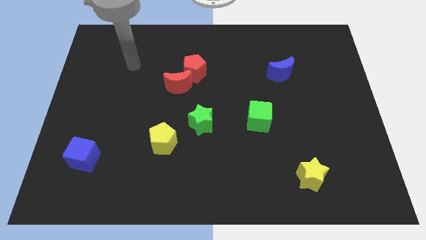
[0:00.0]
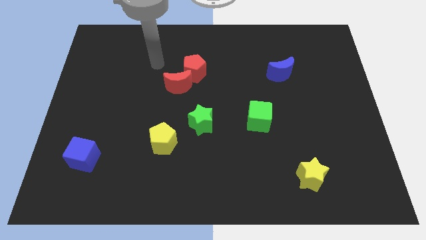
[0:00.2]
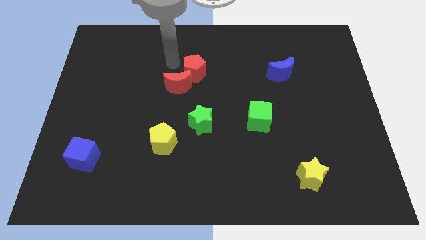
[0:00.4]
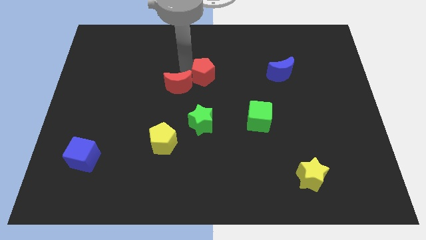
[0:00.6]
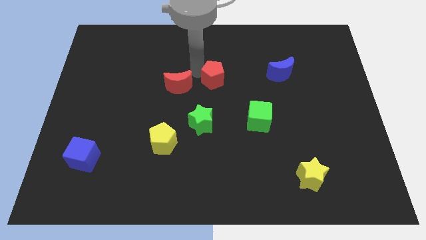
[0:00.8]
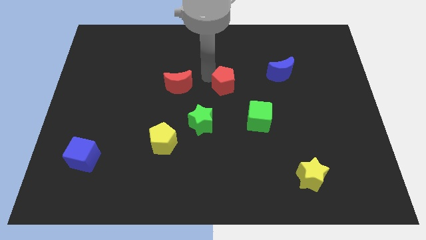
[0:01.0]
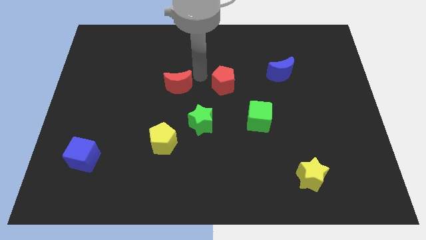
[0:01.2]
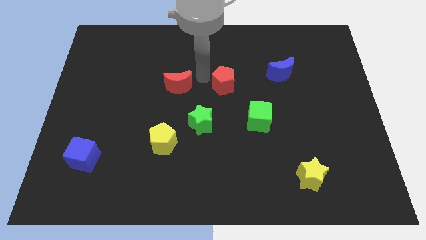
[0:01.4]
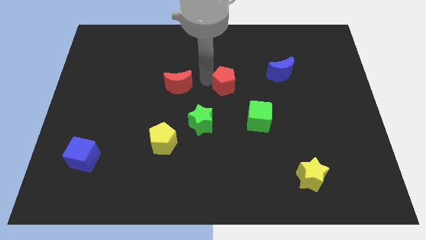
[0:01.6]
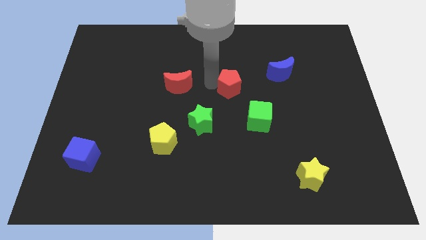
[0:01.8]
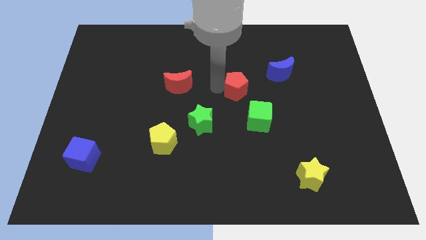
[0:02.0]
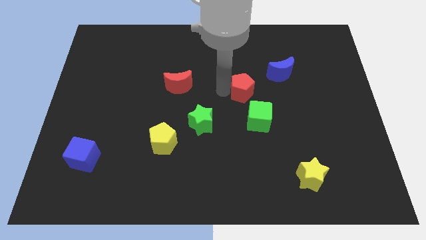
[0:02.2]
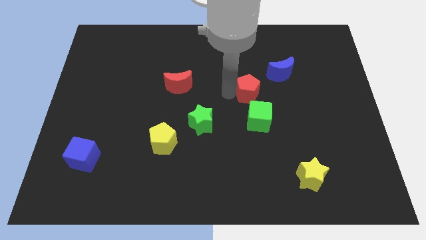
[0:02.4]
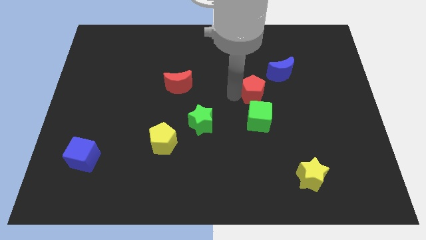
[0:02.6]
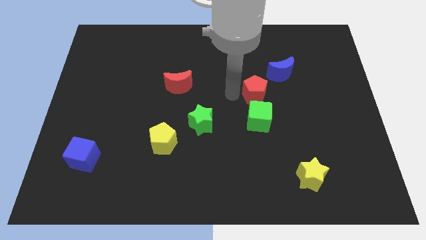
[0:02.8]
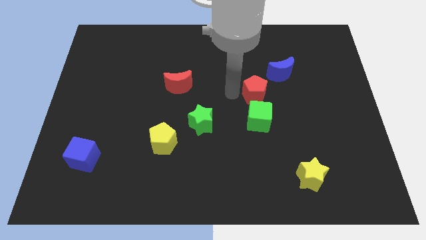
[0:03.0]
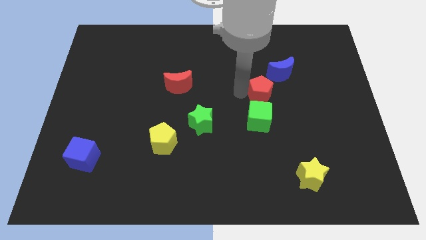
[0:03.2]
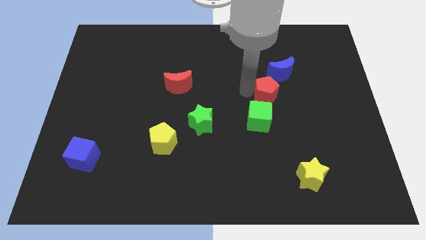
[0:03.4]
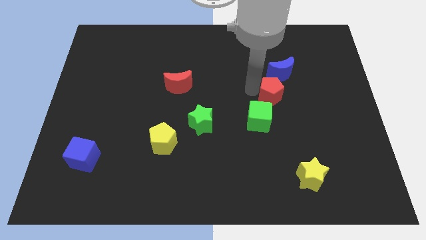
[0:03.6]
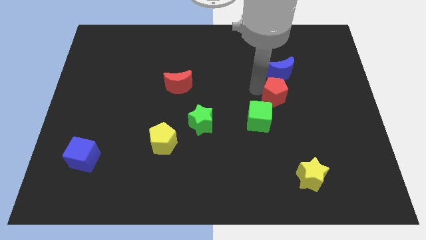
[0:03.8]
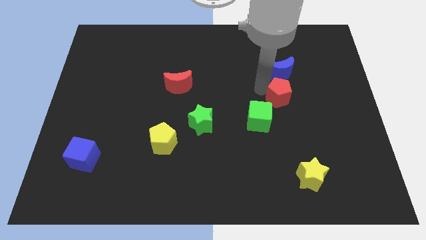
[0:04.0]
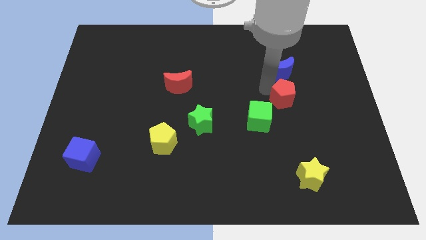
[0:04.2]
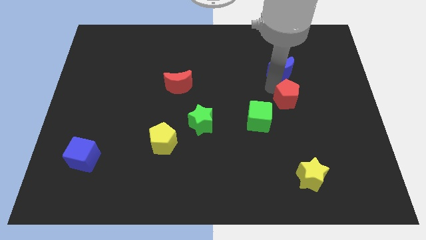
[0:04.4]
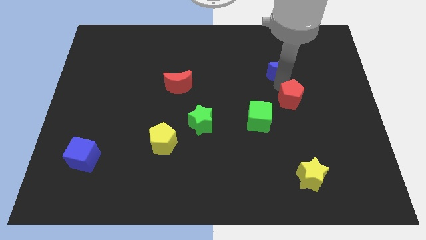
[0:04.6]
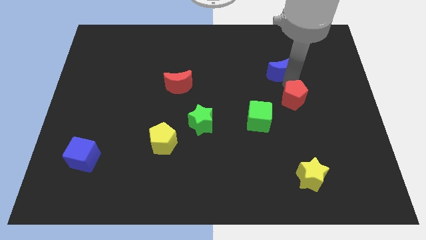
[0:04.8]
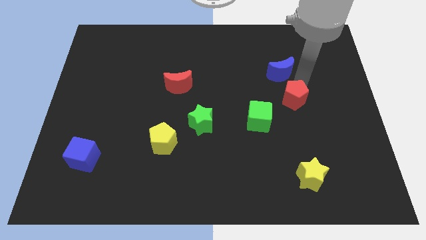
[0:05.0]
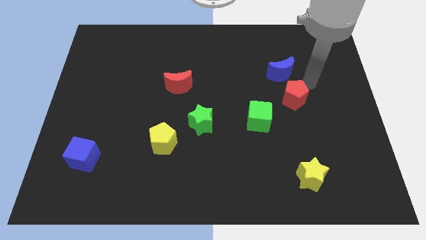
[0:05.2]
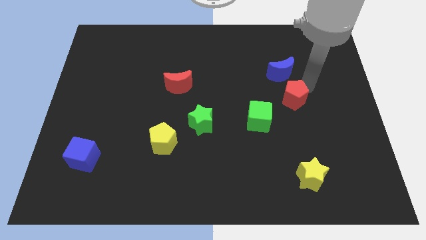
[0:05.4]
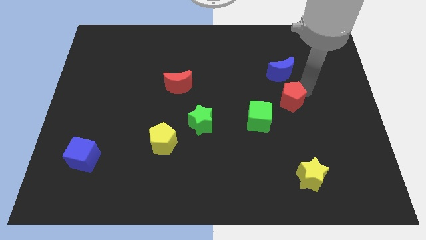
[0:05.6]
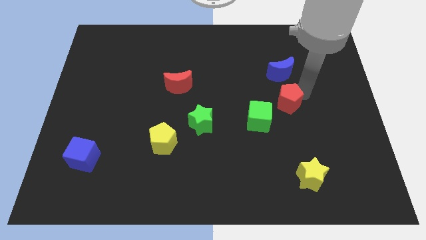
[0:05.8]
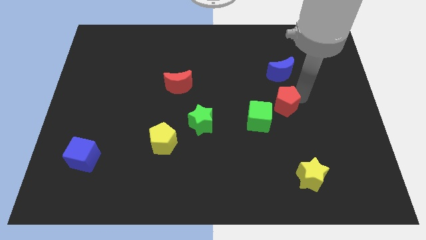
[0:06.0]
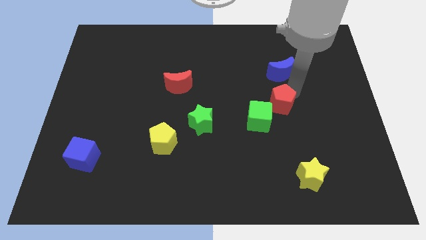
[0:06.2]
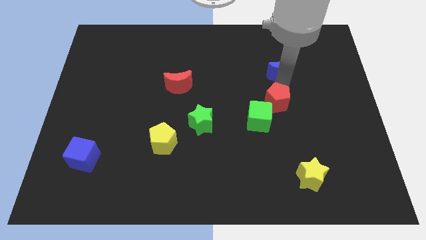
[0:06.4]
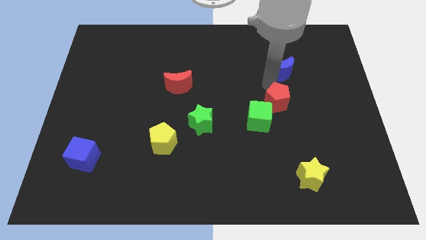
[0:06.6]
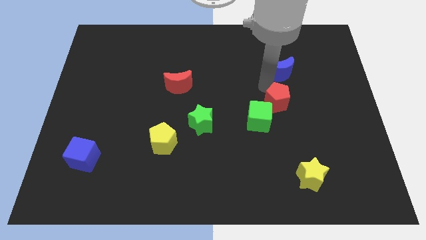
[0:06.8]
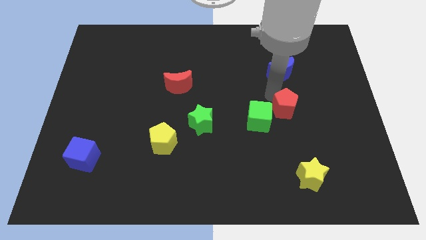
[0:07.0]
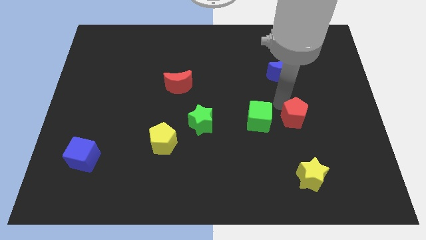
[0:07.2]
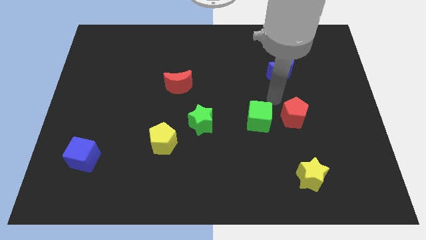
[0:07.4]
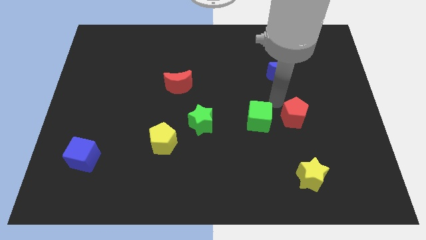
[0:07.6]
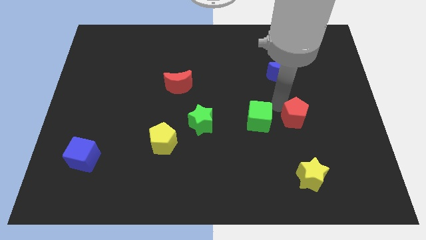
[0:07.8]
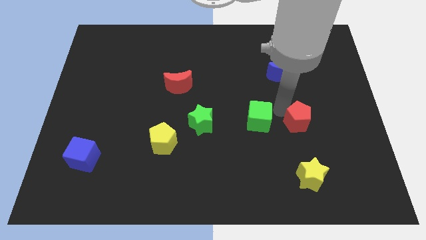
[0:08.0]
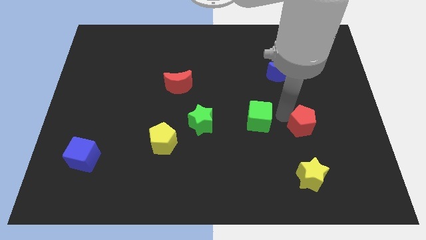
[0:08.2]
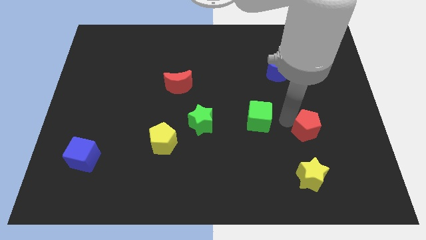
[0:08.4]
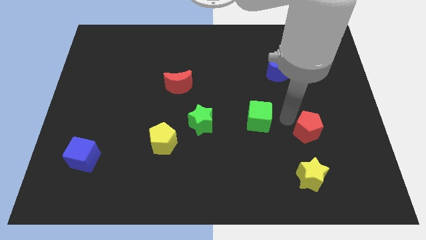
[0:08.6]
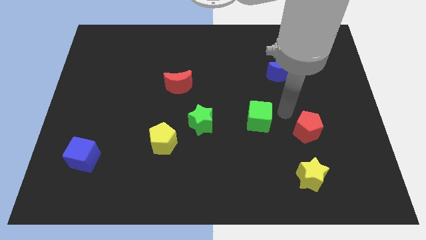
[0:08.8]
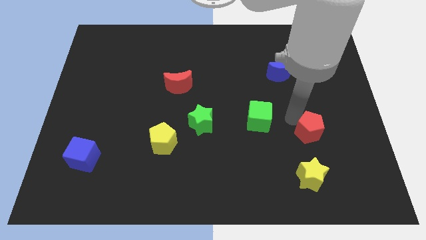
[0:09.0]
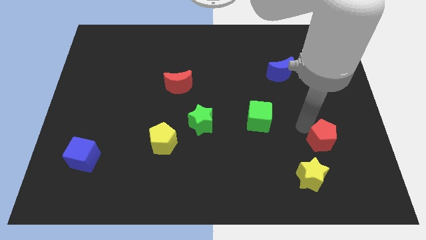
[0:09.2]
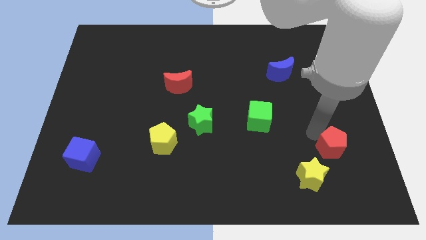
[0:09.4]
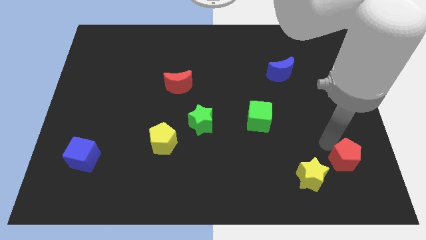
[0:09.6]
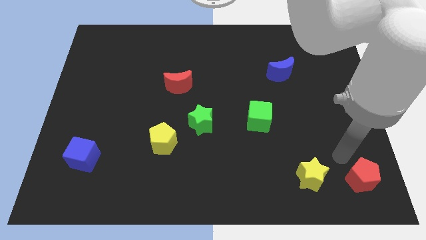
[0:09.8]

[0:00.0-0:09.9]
move the red pentagon to the bottom right

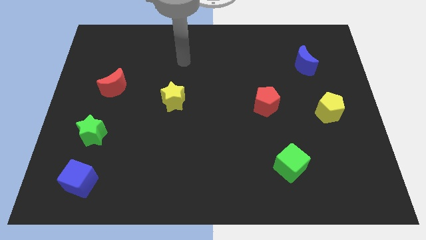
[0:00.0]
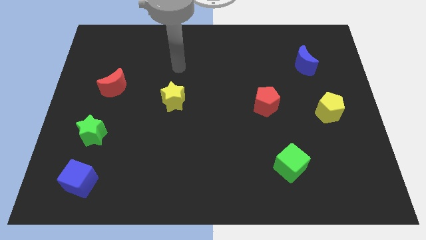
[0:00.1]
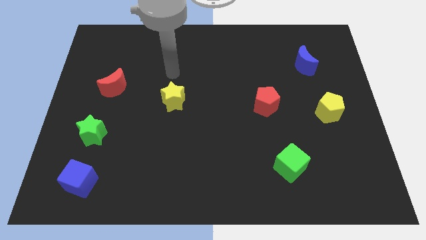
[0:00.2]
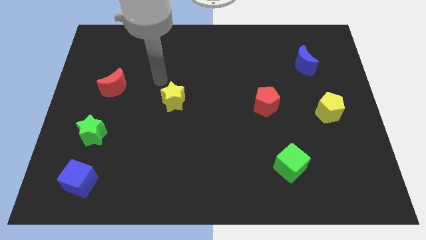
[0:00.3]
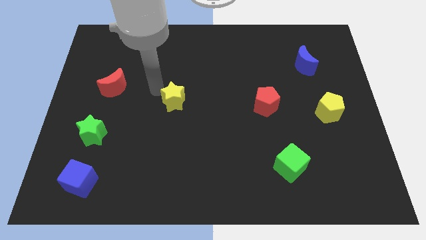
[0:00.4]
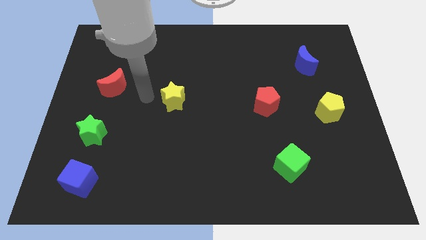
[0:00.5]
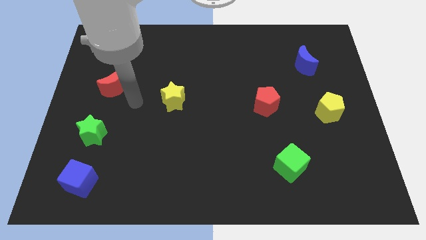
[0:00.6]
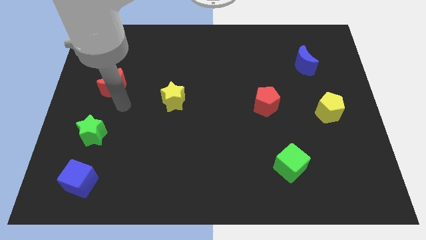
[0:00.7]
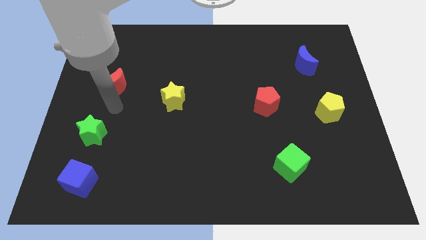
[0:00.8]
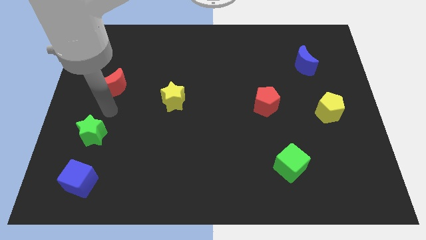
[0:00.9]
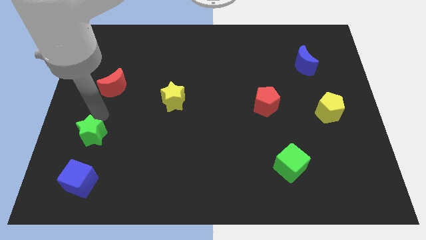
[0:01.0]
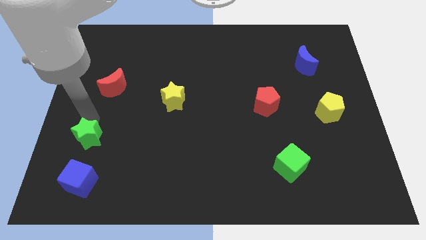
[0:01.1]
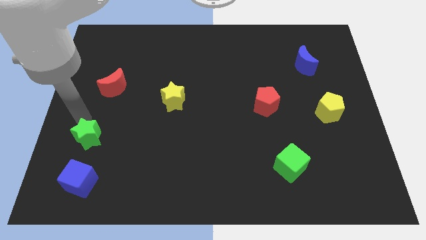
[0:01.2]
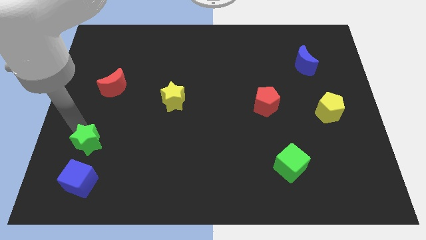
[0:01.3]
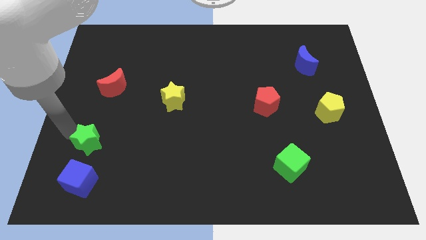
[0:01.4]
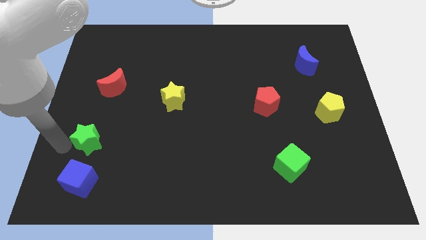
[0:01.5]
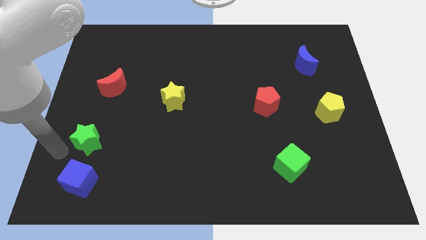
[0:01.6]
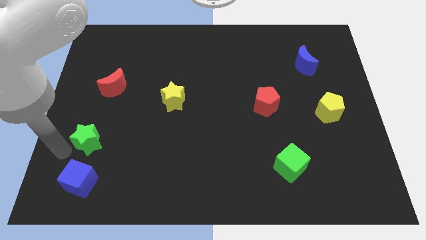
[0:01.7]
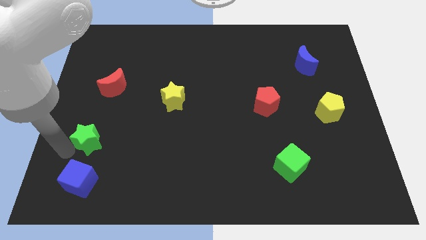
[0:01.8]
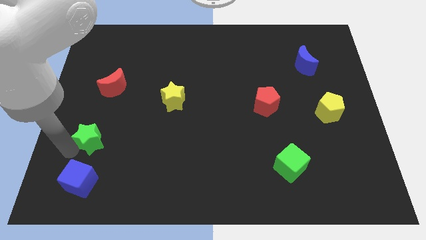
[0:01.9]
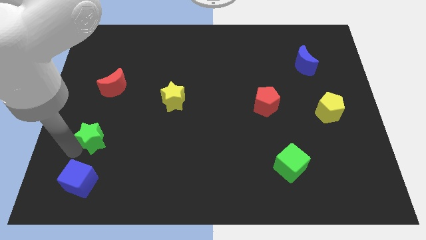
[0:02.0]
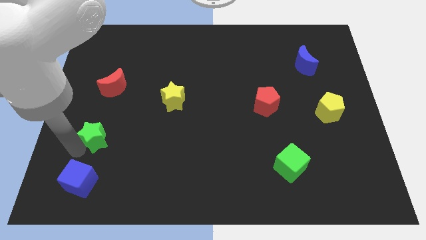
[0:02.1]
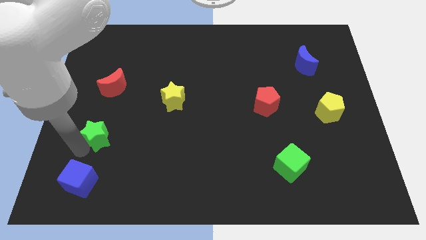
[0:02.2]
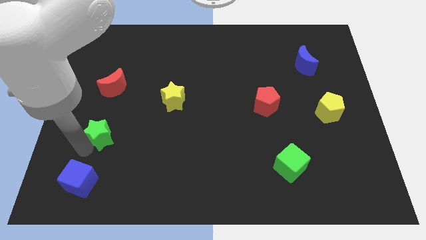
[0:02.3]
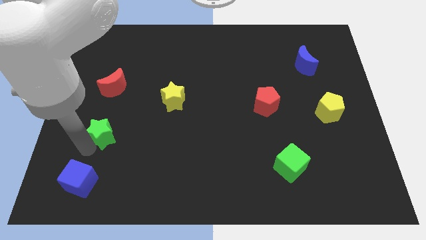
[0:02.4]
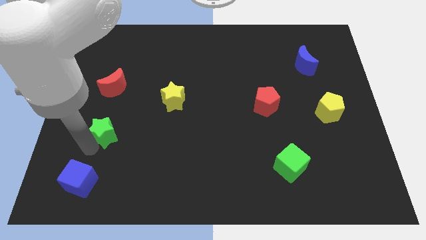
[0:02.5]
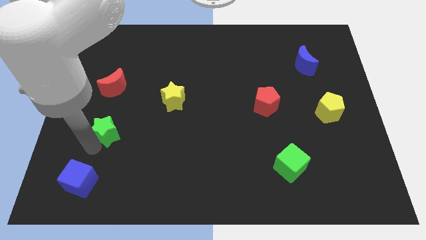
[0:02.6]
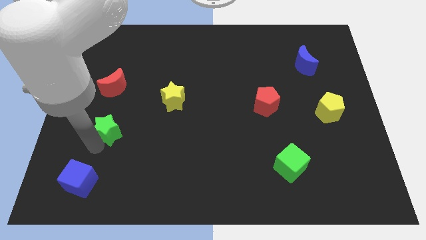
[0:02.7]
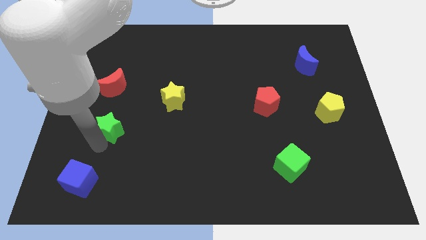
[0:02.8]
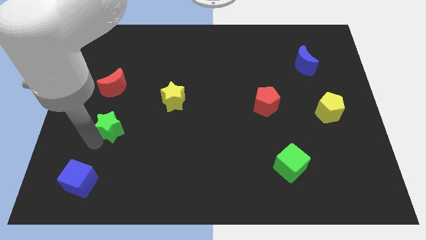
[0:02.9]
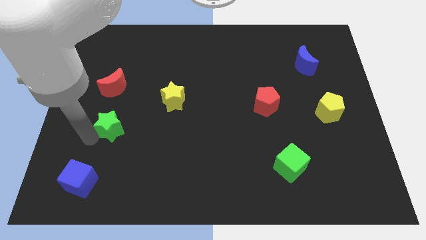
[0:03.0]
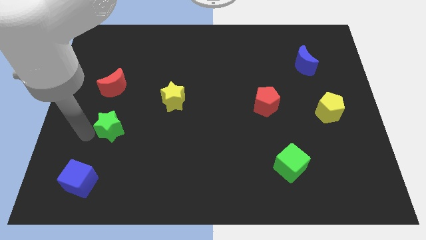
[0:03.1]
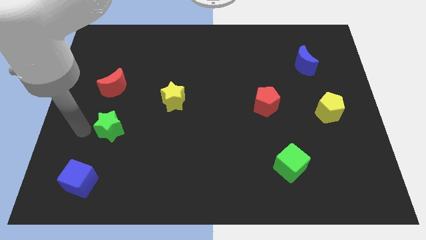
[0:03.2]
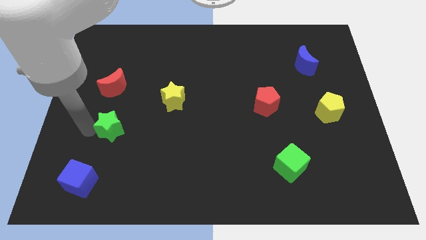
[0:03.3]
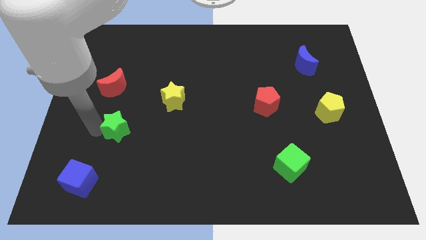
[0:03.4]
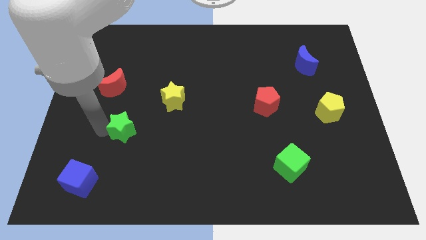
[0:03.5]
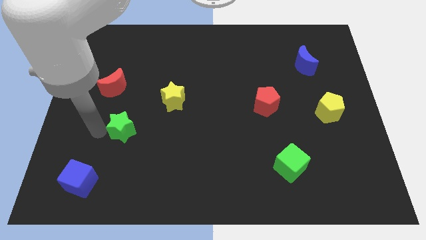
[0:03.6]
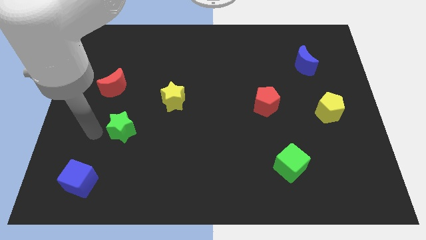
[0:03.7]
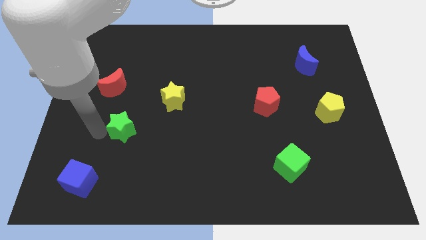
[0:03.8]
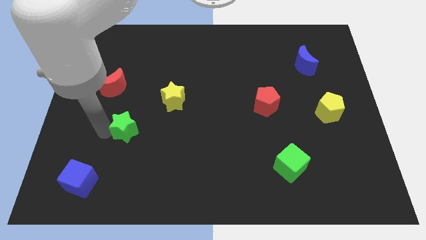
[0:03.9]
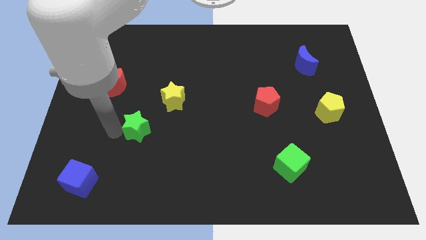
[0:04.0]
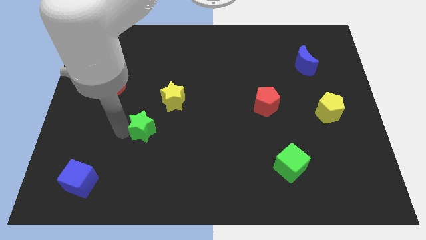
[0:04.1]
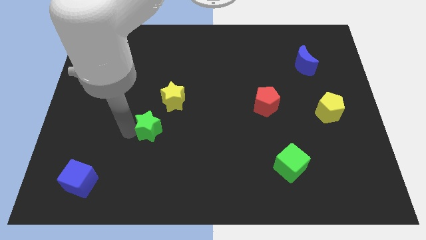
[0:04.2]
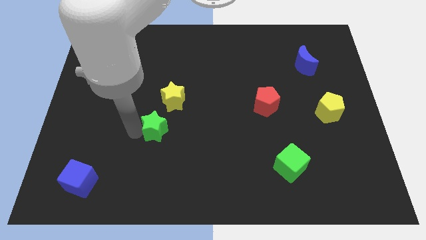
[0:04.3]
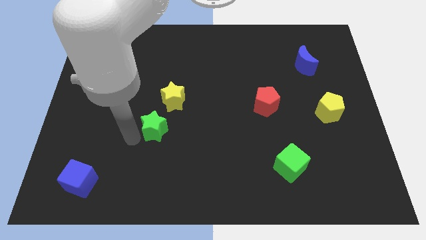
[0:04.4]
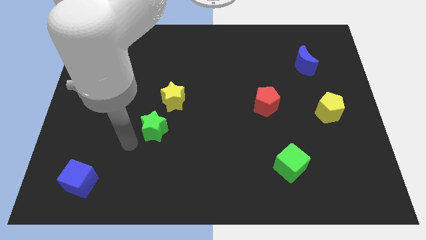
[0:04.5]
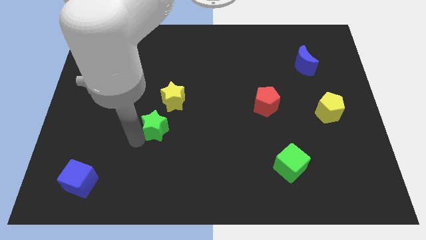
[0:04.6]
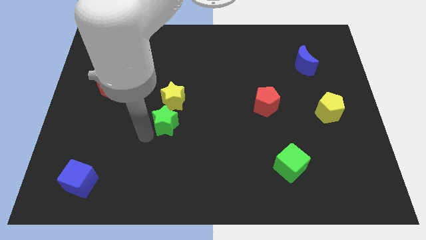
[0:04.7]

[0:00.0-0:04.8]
push the green star to the center of the board
